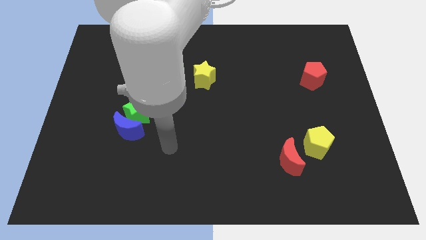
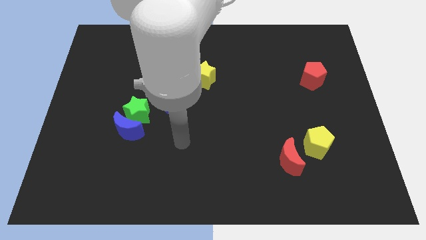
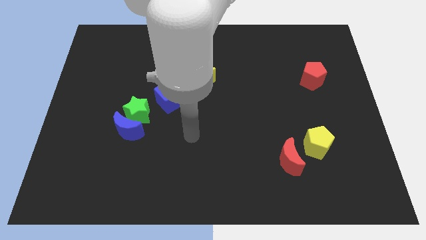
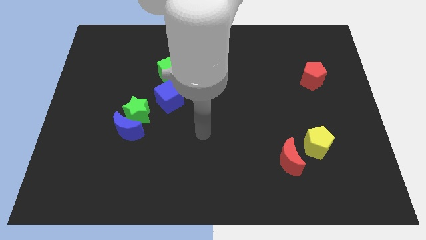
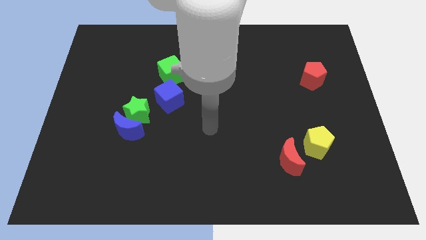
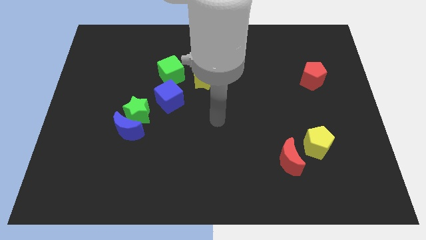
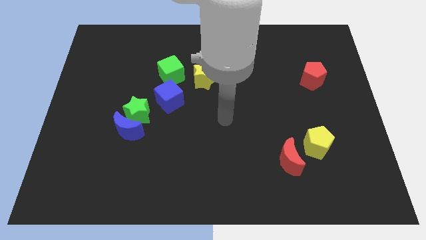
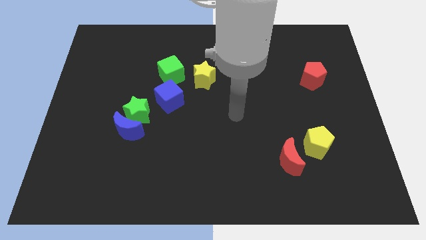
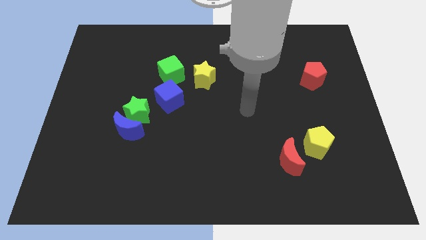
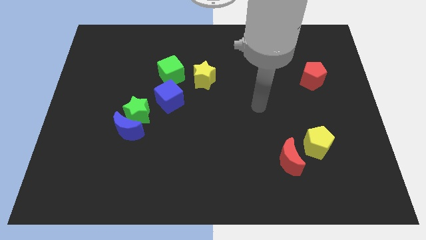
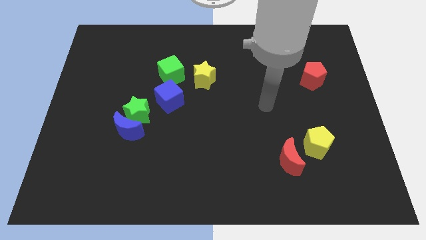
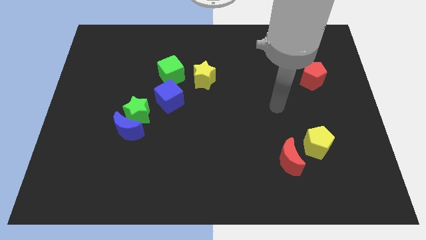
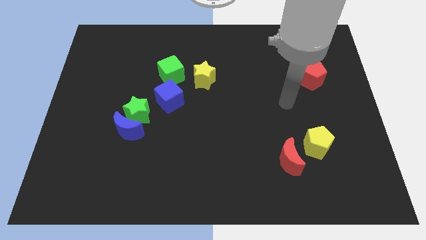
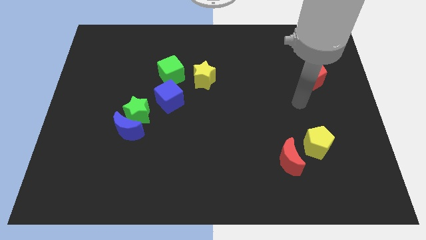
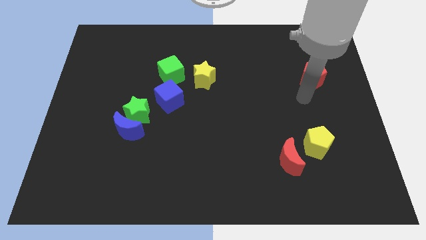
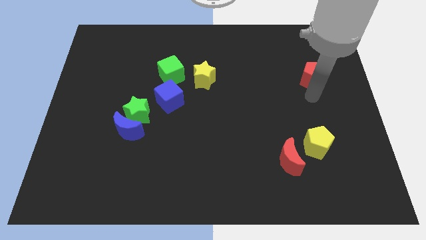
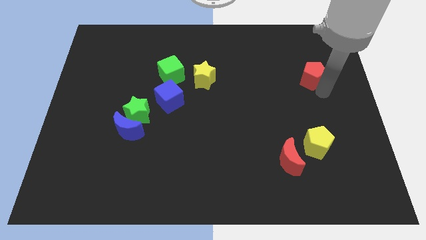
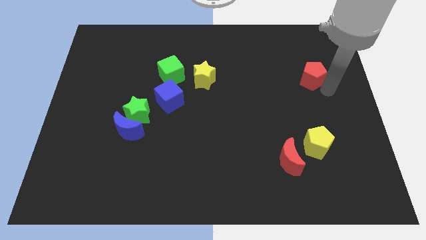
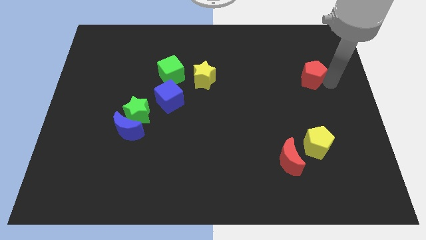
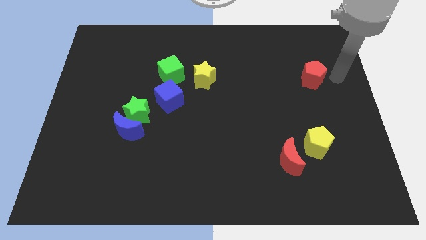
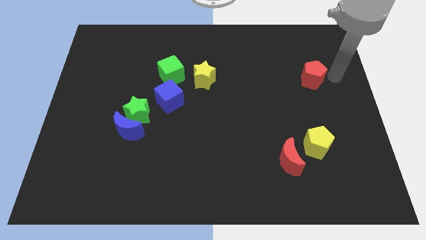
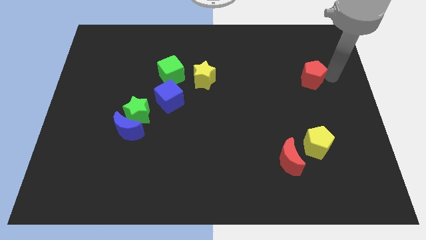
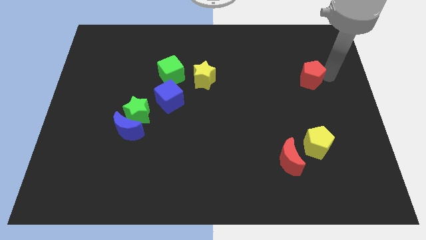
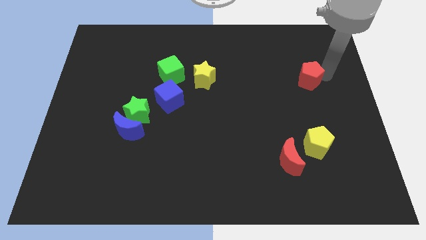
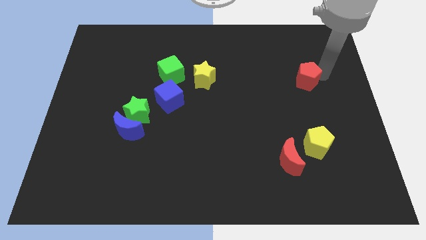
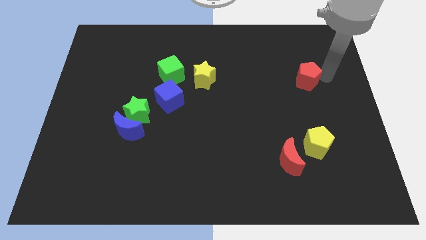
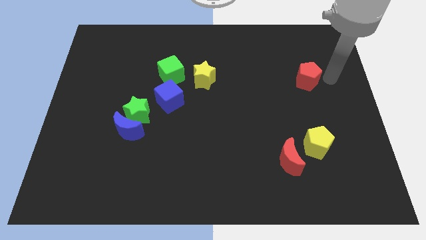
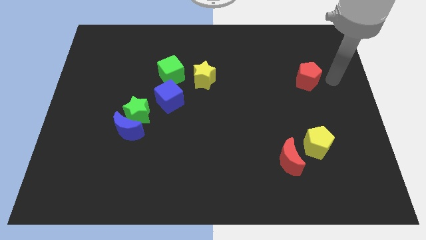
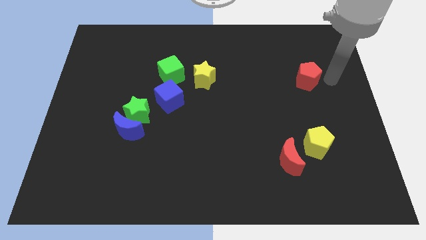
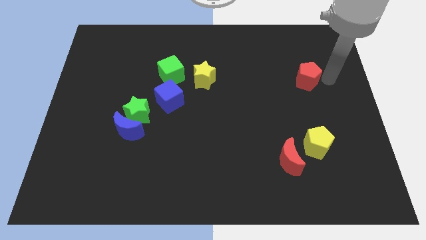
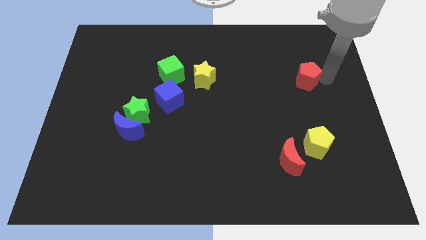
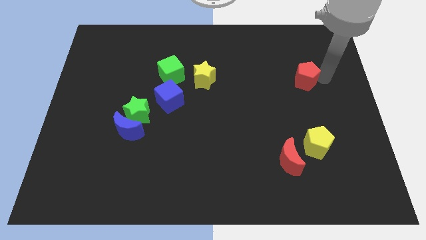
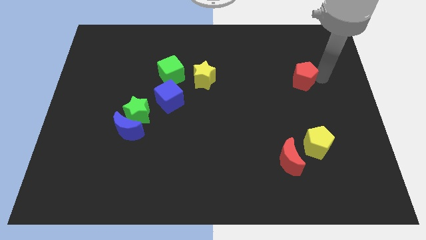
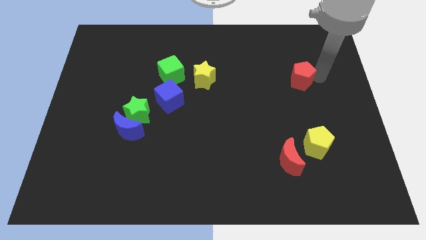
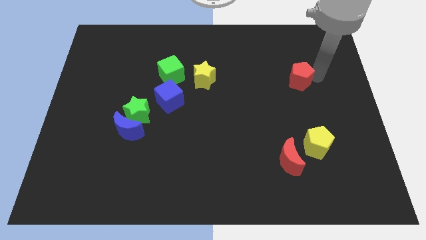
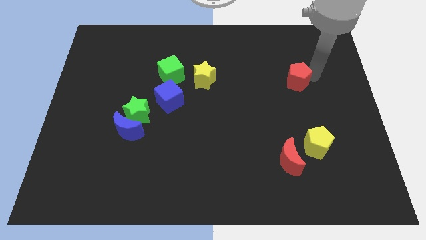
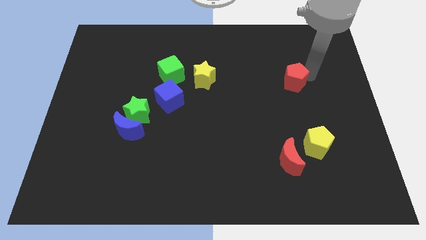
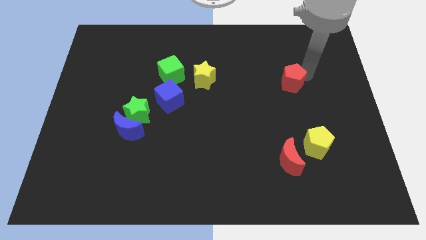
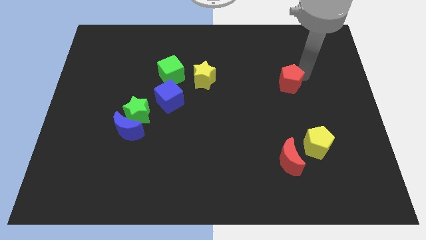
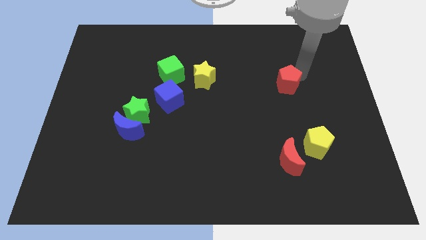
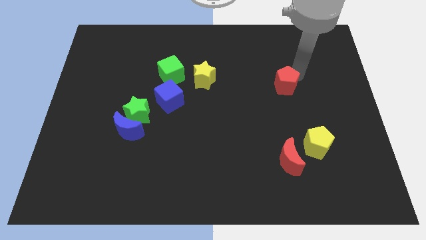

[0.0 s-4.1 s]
push the red pentagon left a little

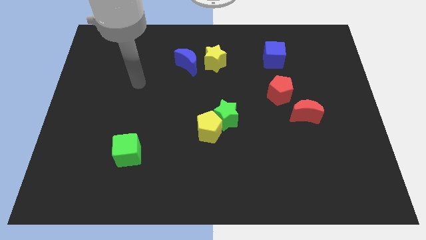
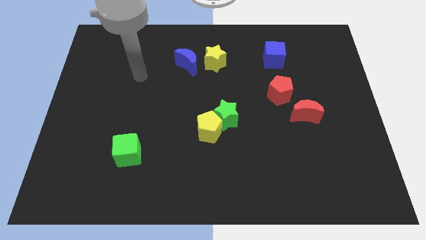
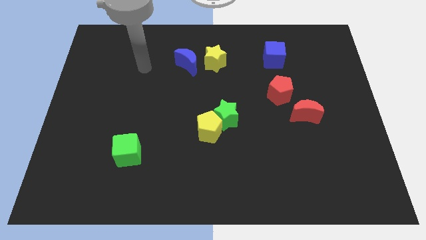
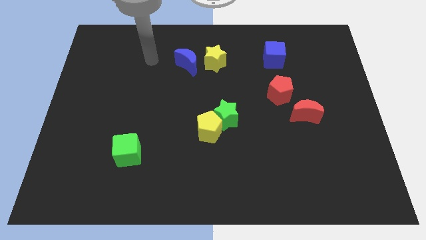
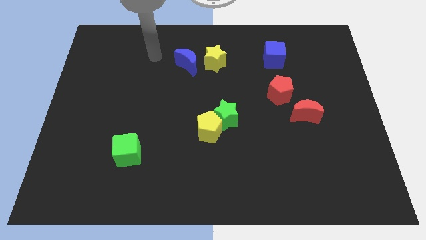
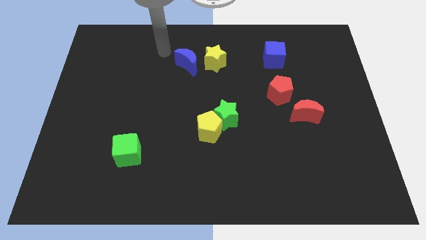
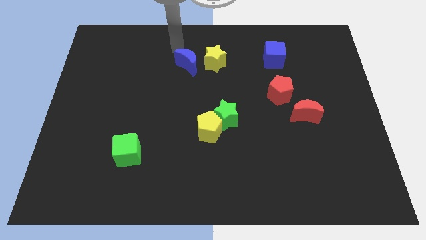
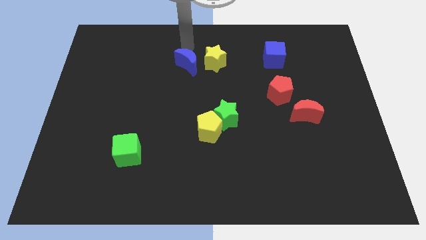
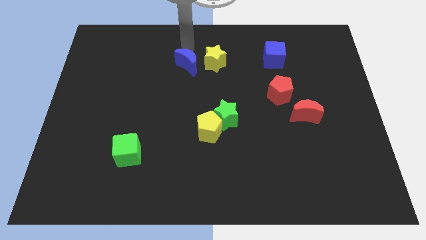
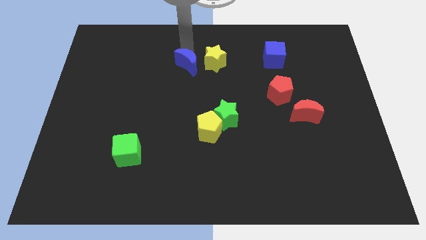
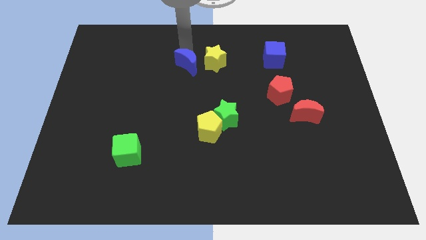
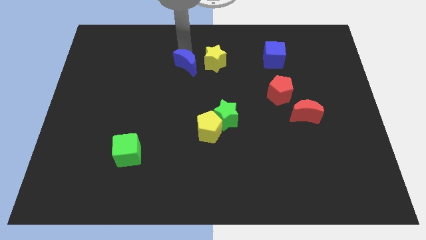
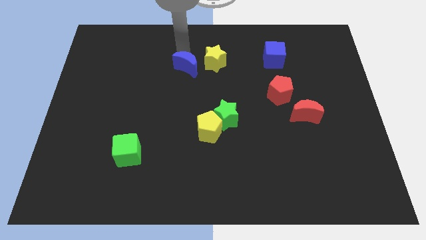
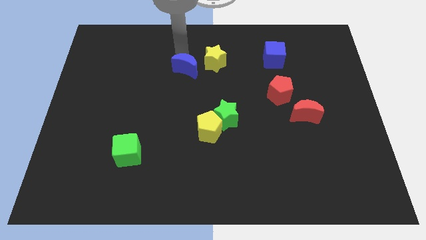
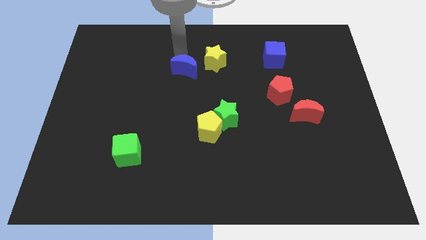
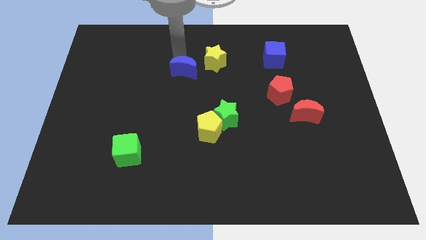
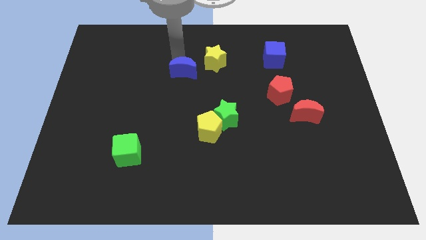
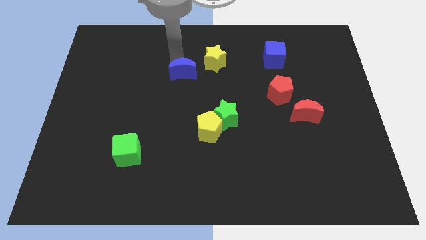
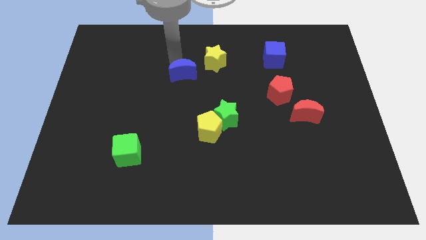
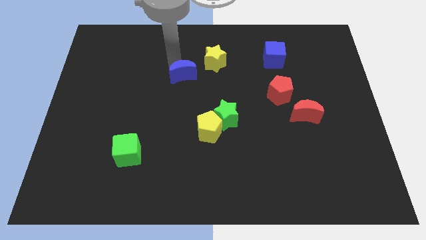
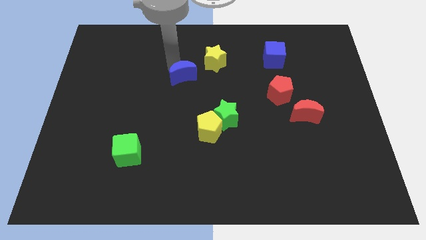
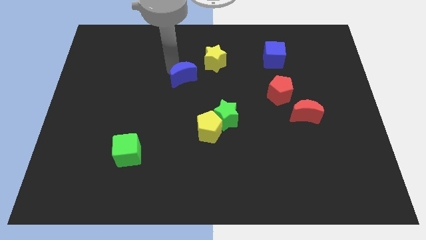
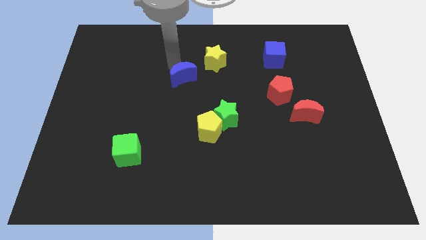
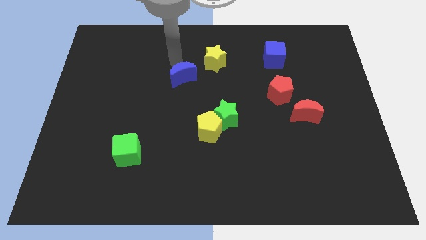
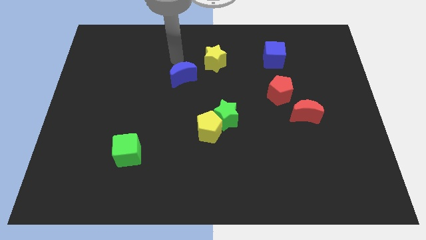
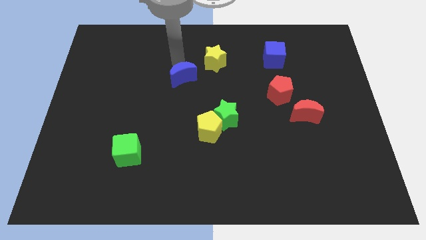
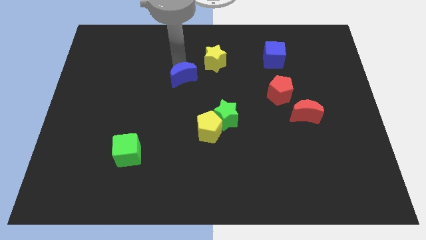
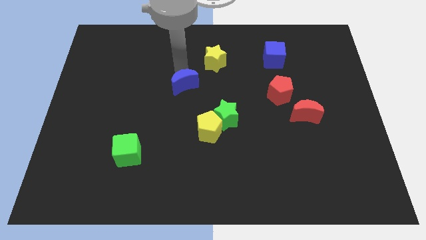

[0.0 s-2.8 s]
push the blue moon down a little bit

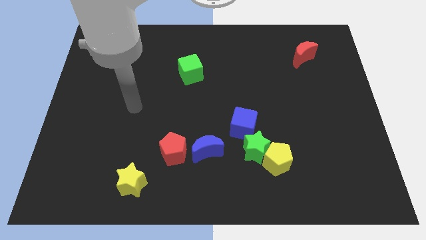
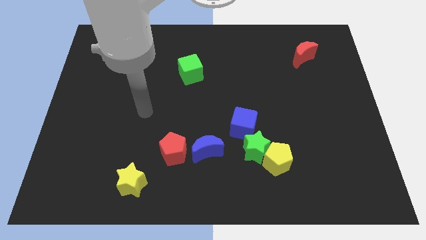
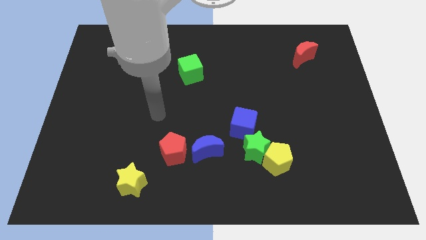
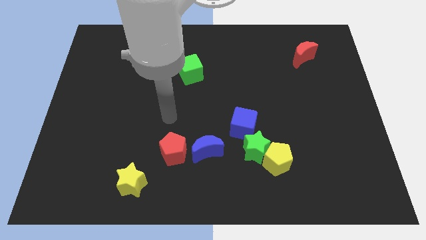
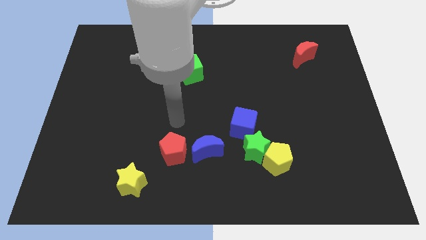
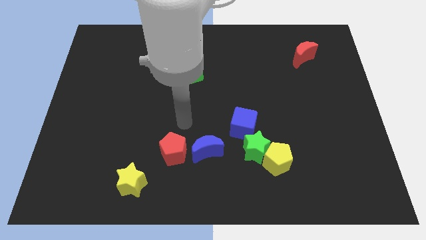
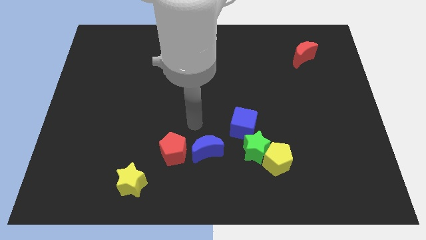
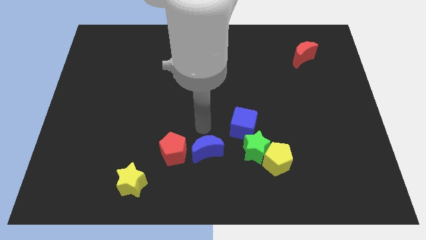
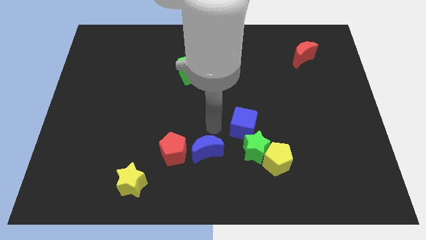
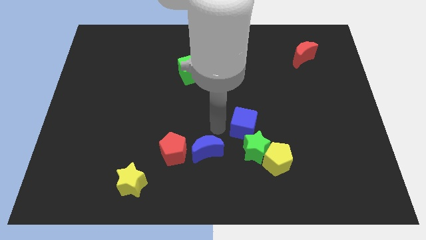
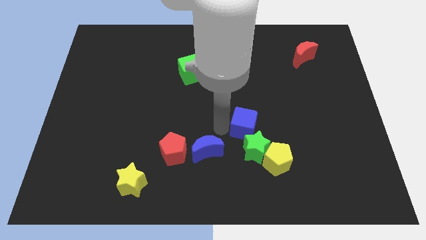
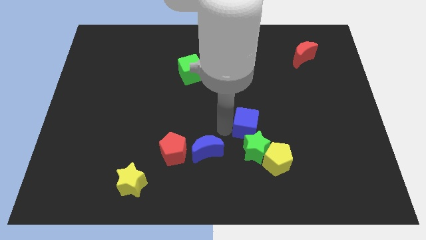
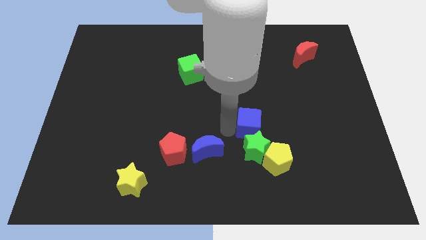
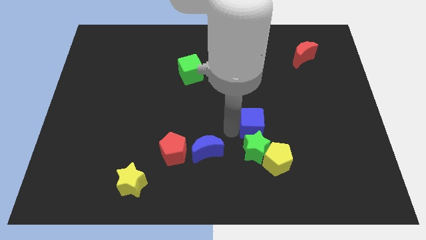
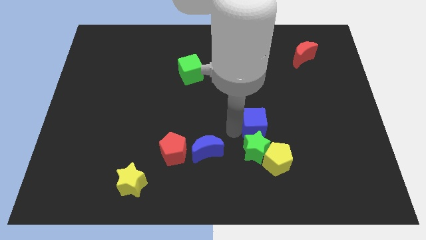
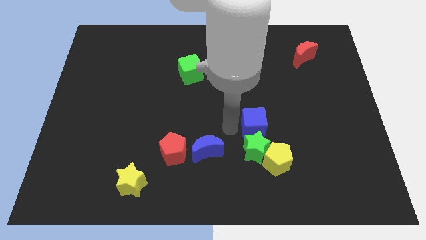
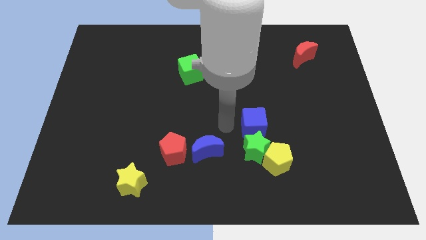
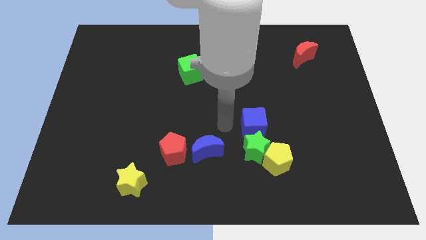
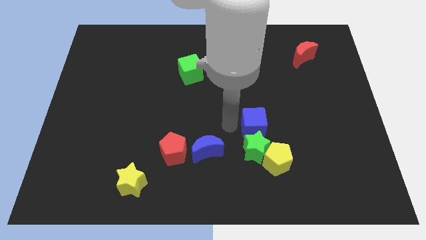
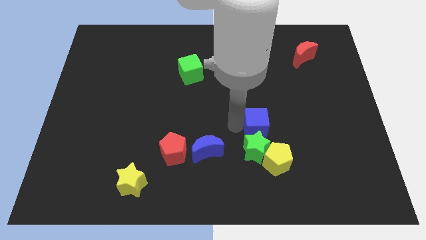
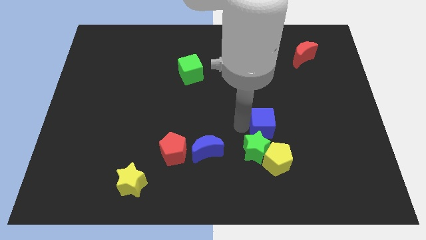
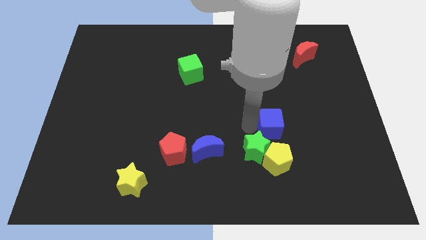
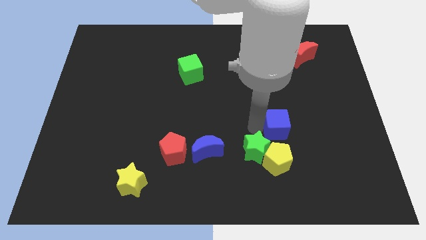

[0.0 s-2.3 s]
slightly move the blue cube right
